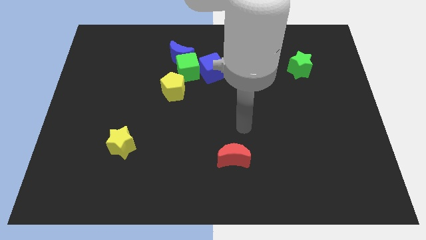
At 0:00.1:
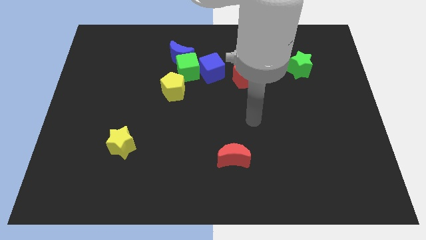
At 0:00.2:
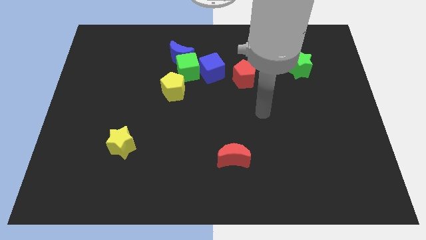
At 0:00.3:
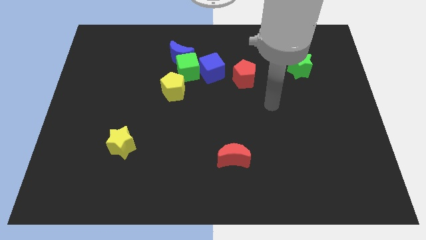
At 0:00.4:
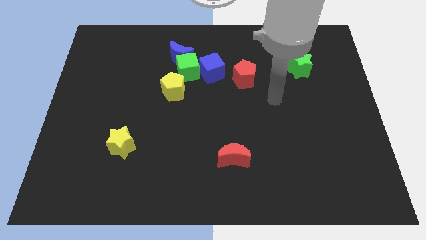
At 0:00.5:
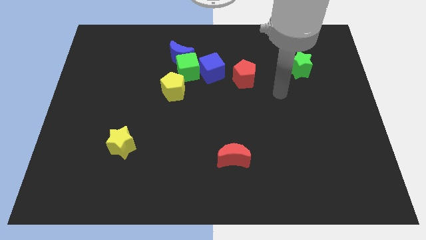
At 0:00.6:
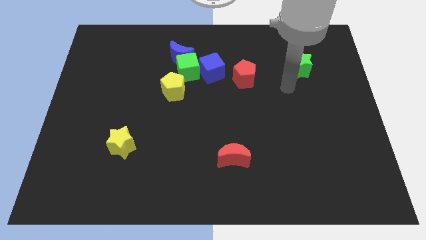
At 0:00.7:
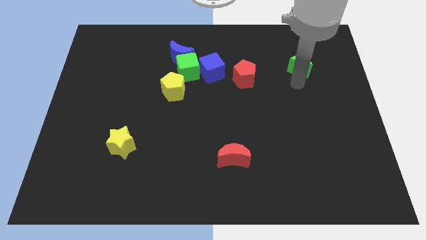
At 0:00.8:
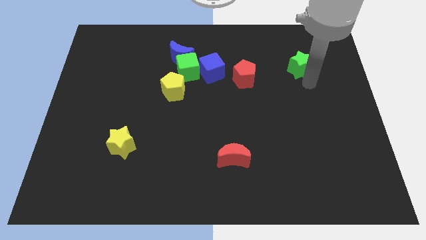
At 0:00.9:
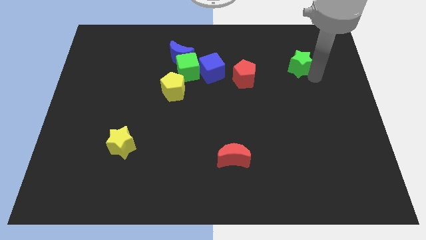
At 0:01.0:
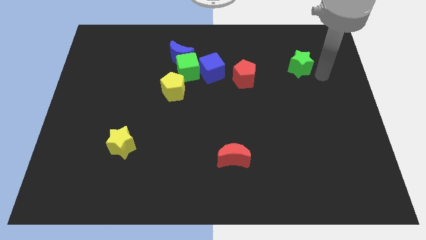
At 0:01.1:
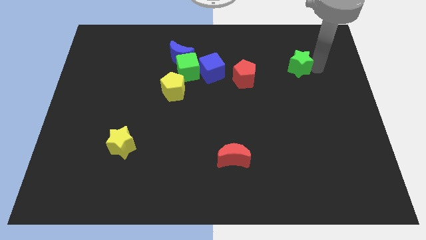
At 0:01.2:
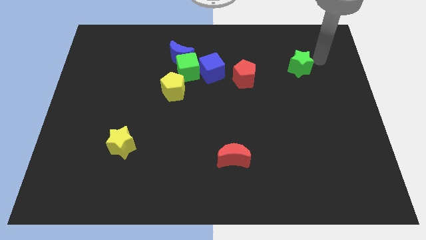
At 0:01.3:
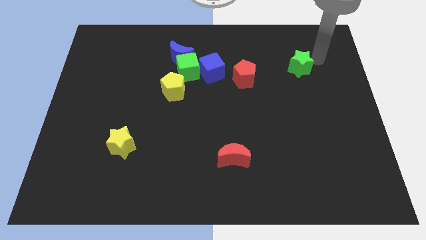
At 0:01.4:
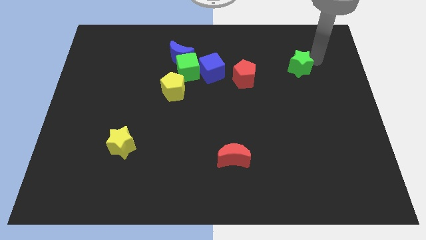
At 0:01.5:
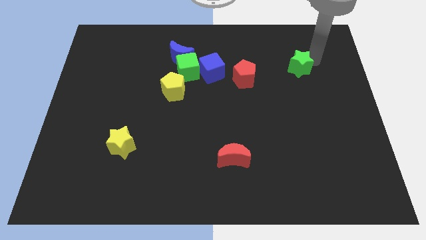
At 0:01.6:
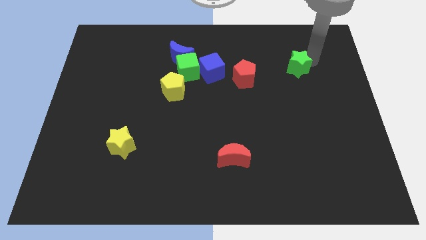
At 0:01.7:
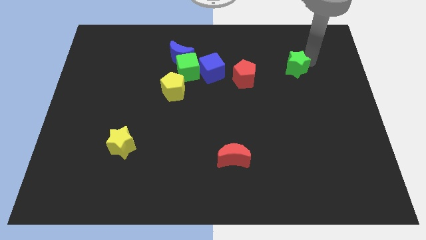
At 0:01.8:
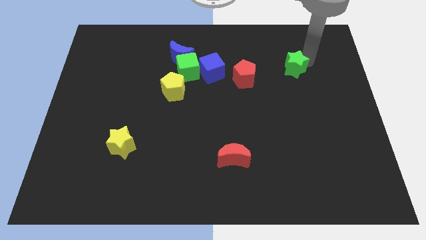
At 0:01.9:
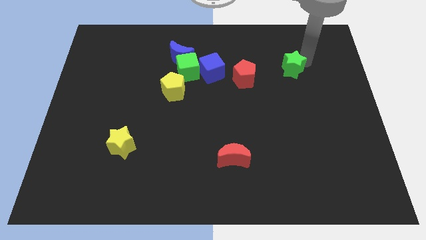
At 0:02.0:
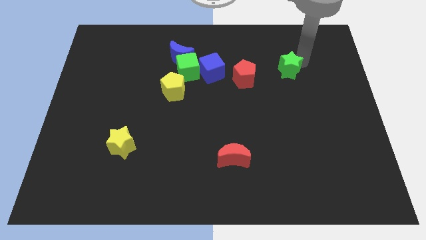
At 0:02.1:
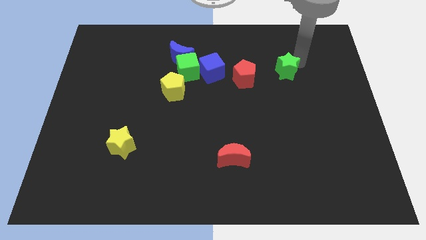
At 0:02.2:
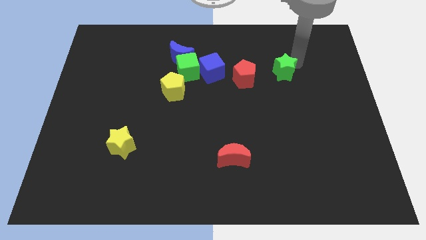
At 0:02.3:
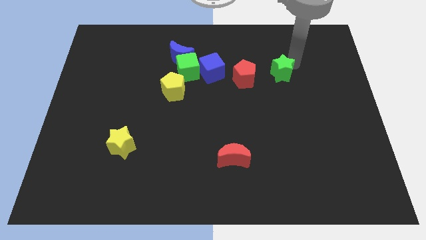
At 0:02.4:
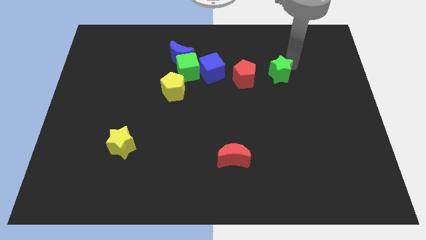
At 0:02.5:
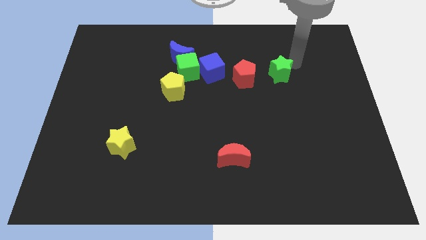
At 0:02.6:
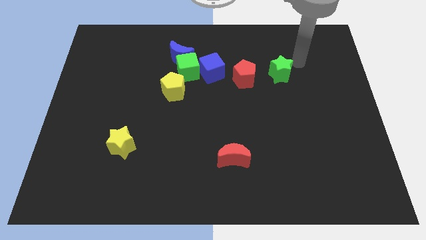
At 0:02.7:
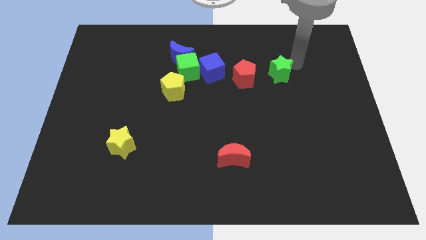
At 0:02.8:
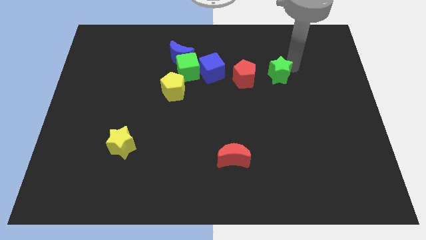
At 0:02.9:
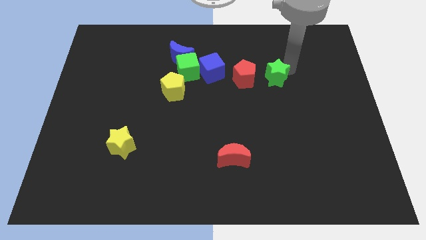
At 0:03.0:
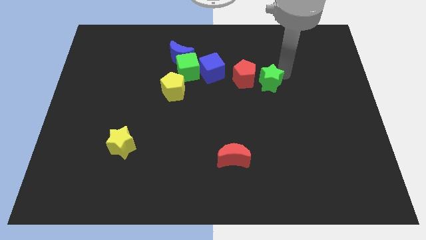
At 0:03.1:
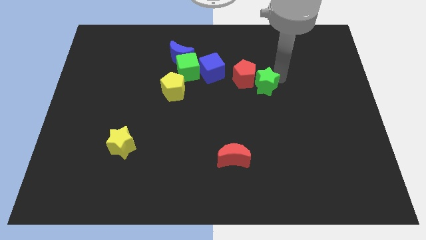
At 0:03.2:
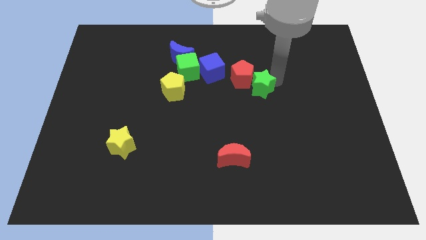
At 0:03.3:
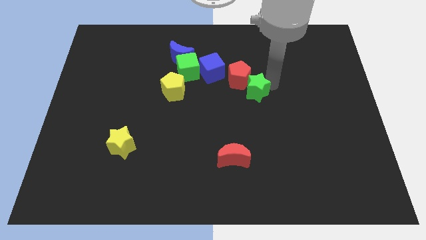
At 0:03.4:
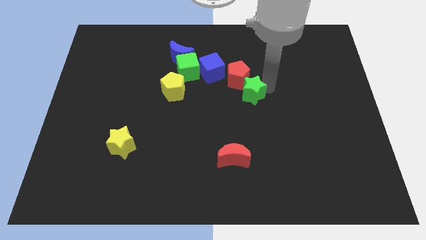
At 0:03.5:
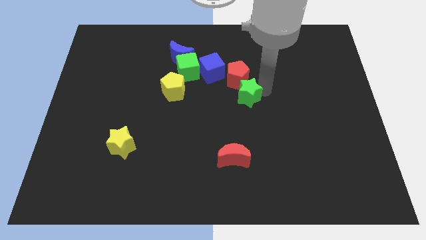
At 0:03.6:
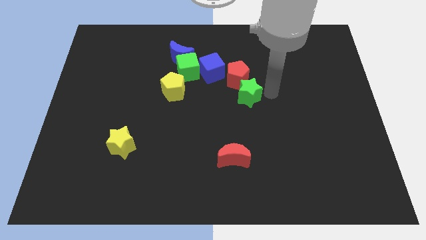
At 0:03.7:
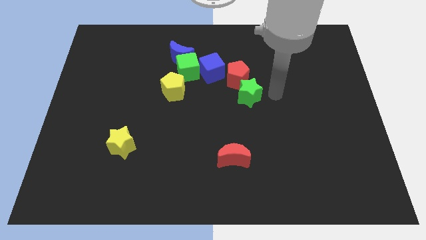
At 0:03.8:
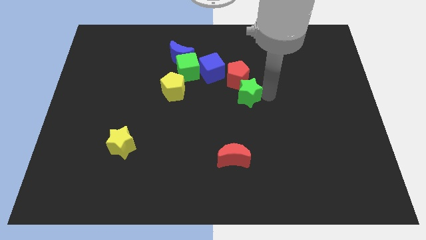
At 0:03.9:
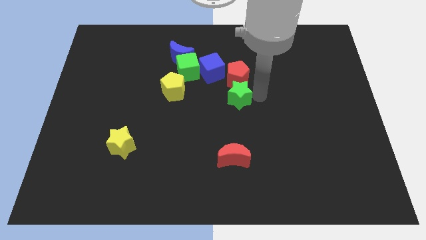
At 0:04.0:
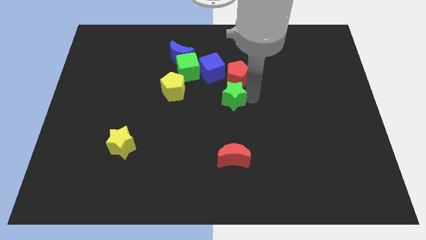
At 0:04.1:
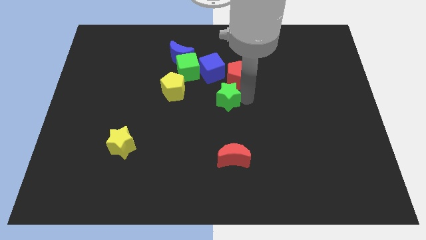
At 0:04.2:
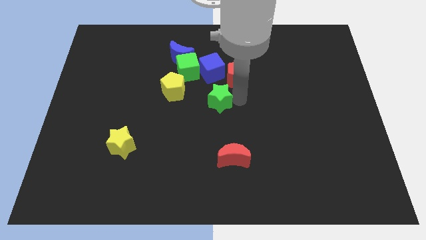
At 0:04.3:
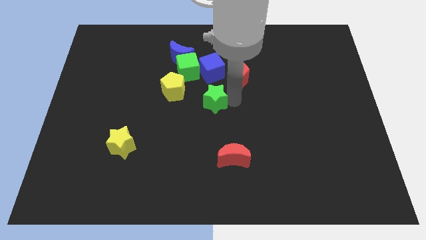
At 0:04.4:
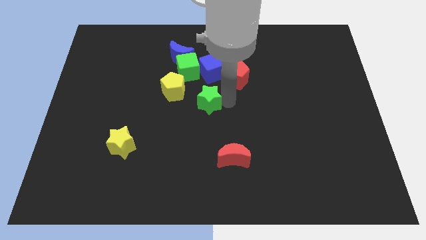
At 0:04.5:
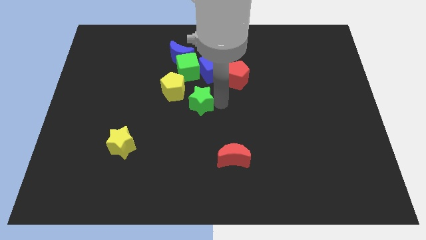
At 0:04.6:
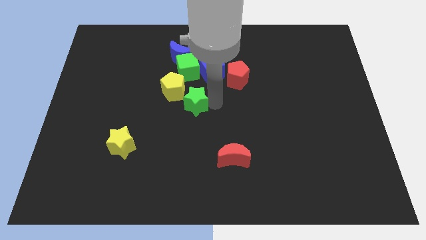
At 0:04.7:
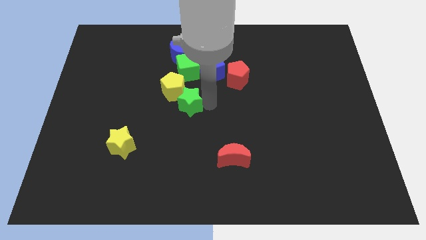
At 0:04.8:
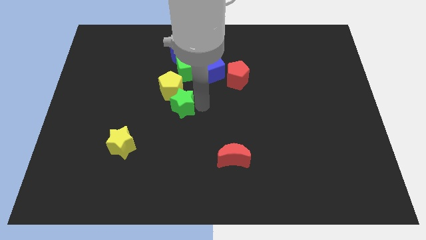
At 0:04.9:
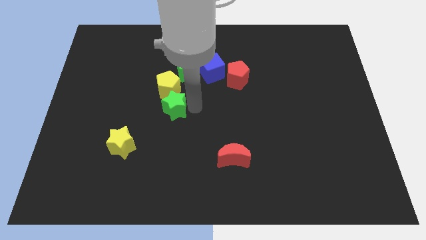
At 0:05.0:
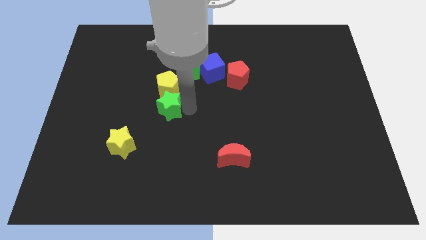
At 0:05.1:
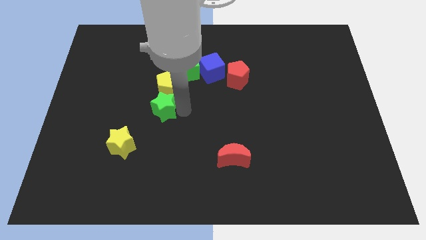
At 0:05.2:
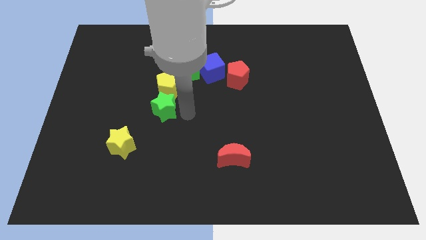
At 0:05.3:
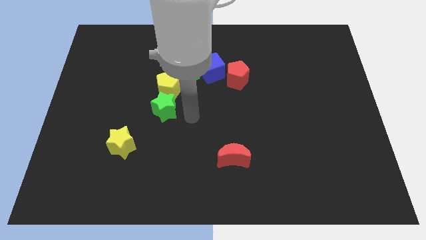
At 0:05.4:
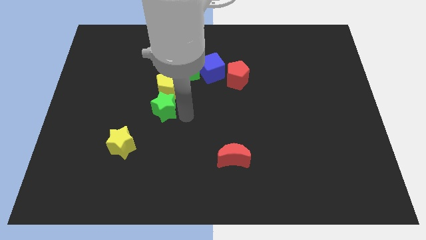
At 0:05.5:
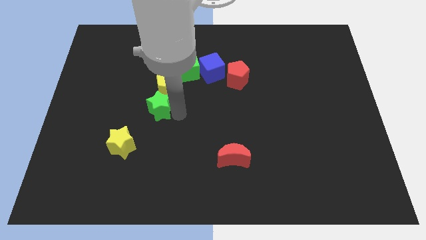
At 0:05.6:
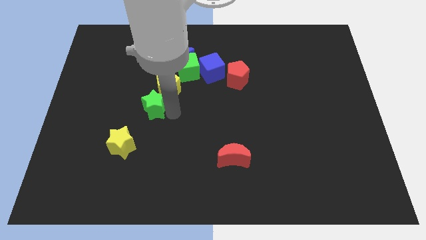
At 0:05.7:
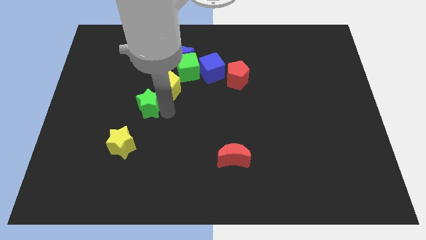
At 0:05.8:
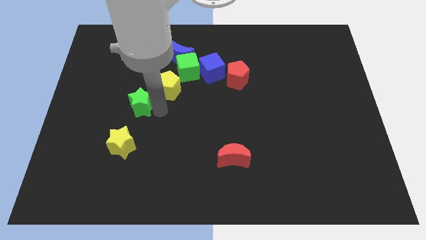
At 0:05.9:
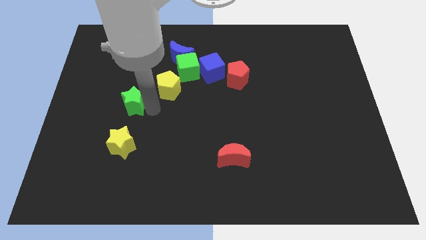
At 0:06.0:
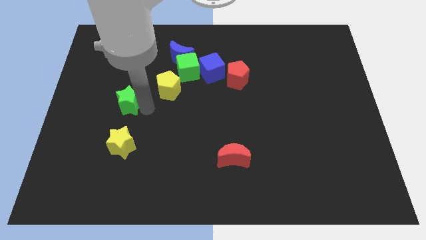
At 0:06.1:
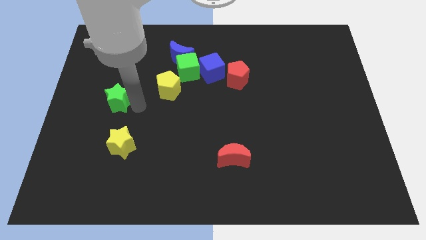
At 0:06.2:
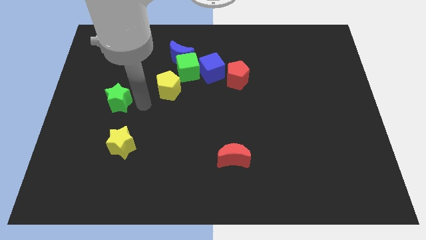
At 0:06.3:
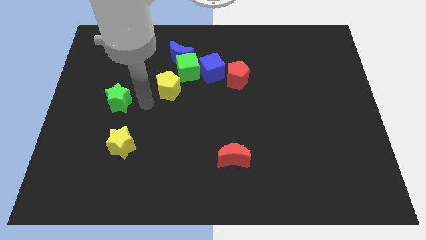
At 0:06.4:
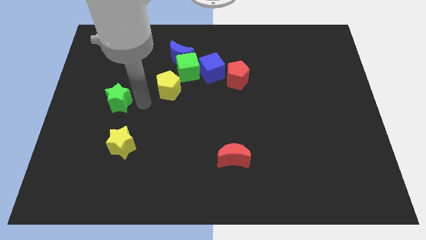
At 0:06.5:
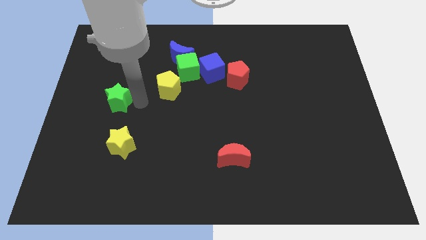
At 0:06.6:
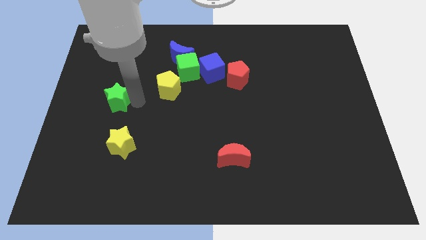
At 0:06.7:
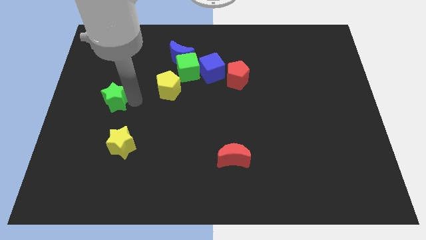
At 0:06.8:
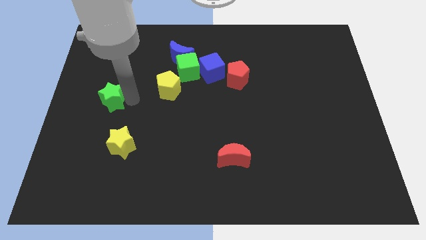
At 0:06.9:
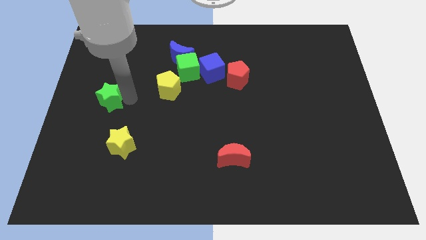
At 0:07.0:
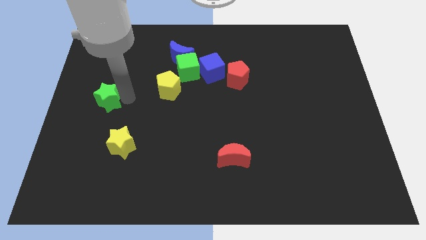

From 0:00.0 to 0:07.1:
push the green star to the center left
